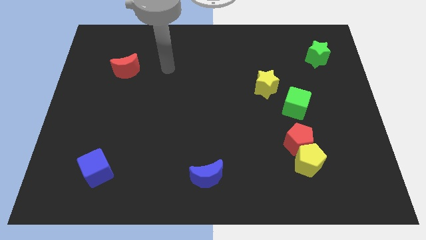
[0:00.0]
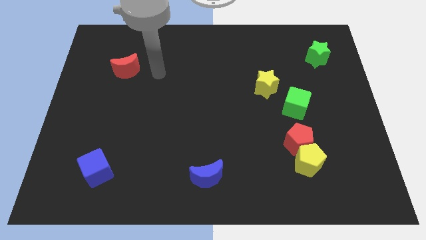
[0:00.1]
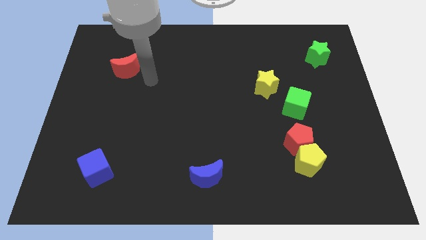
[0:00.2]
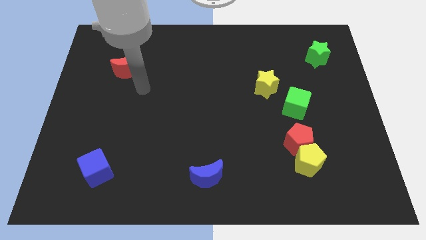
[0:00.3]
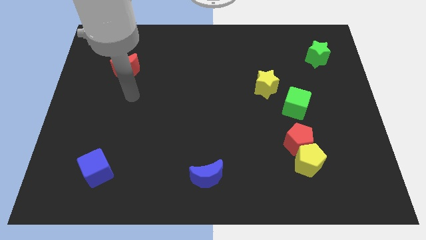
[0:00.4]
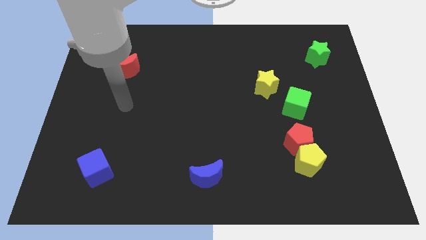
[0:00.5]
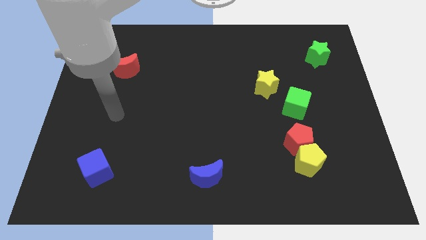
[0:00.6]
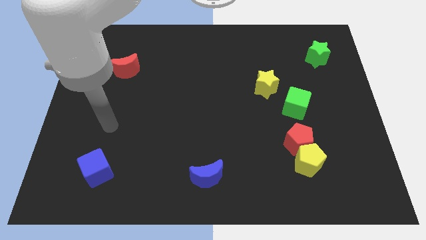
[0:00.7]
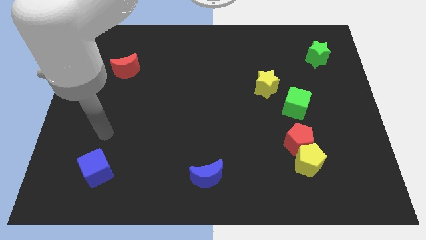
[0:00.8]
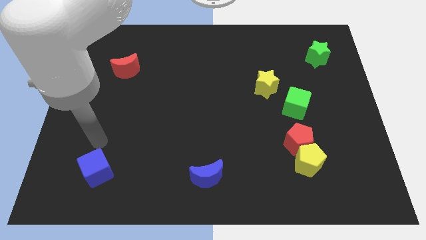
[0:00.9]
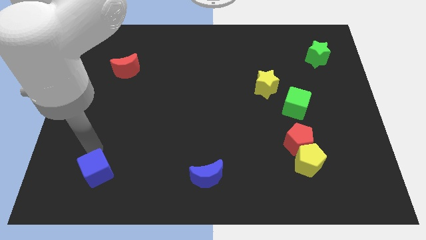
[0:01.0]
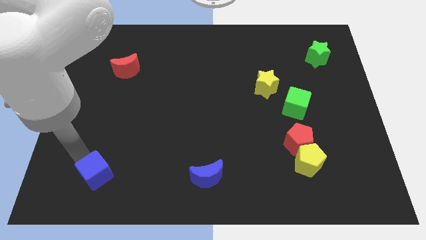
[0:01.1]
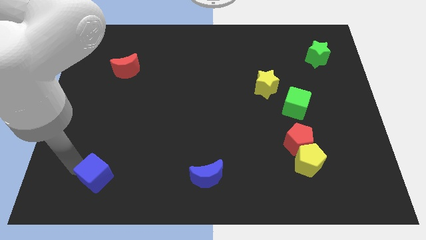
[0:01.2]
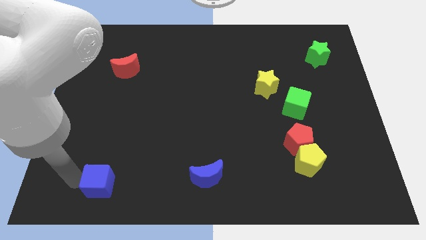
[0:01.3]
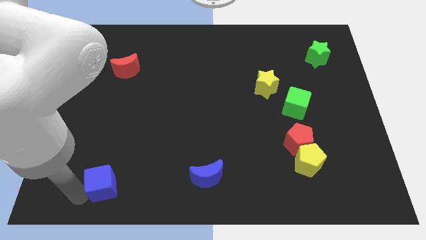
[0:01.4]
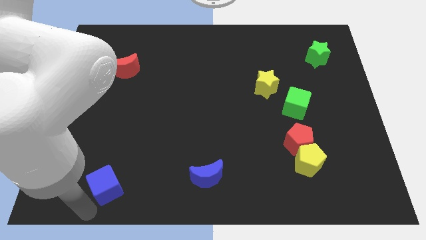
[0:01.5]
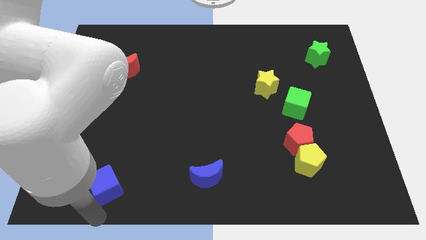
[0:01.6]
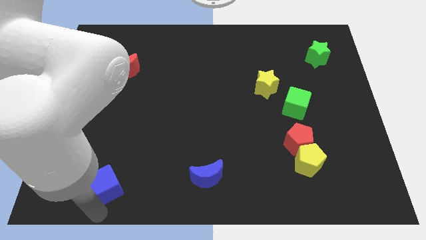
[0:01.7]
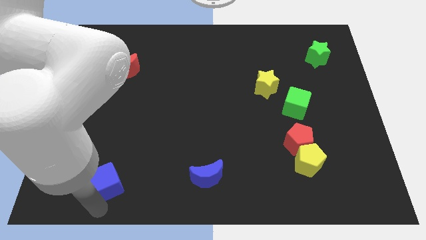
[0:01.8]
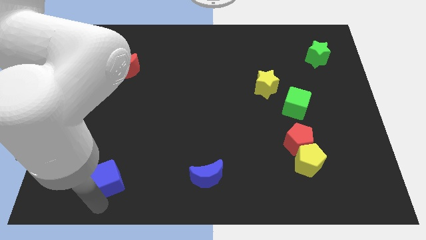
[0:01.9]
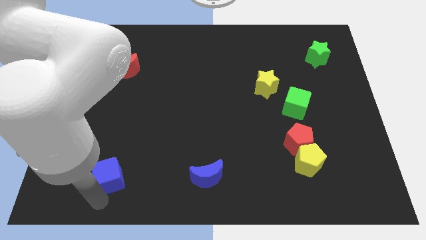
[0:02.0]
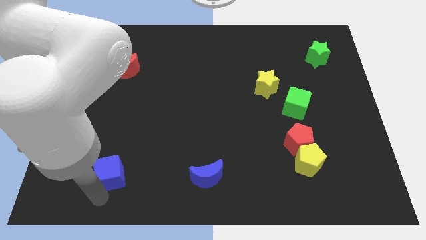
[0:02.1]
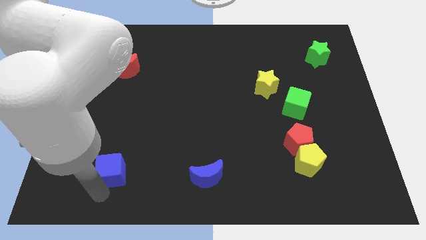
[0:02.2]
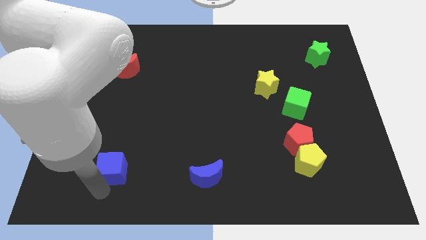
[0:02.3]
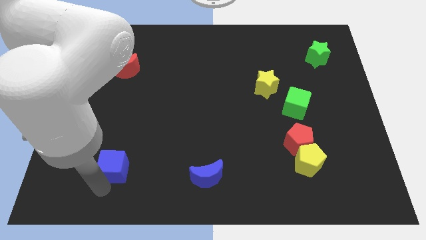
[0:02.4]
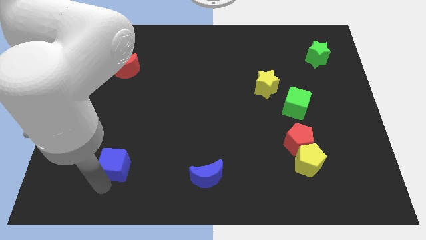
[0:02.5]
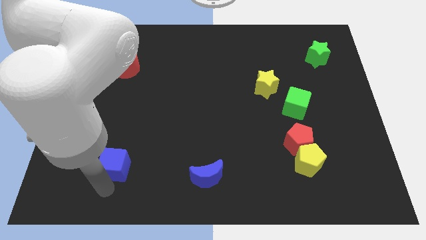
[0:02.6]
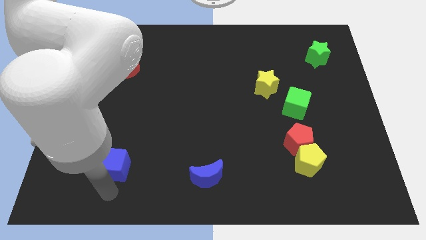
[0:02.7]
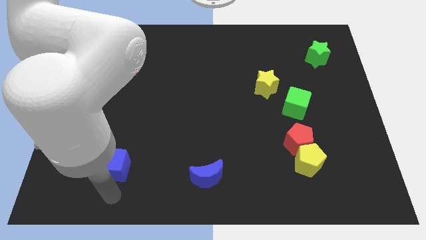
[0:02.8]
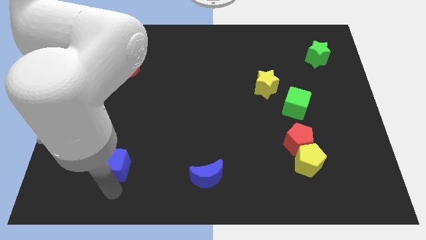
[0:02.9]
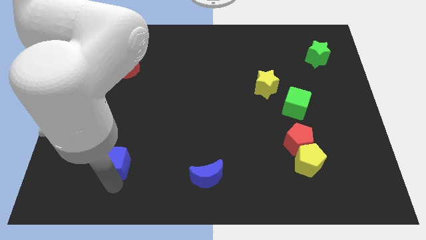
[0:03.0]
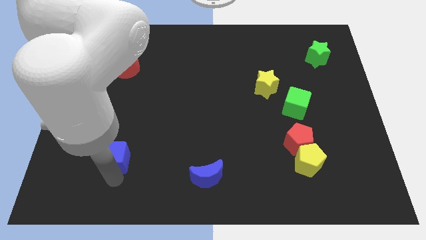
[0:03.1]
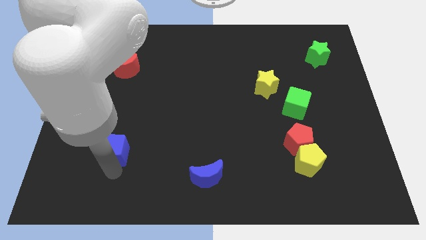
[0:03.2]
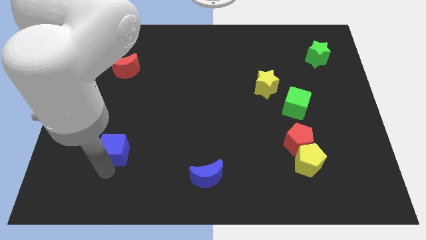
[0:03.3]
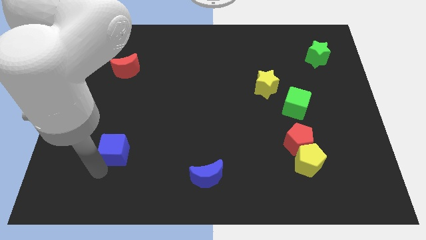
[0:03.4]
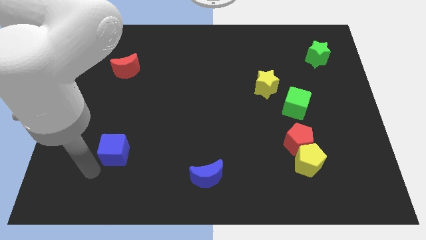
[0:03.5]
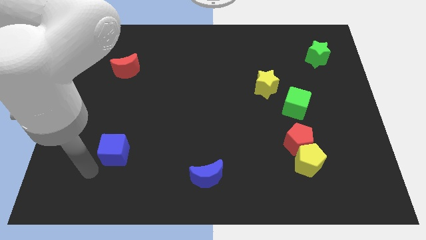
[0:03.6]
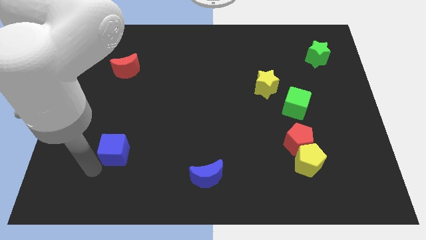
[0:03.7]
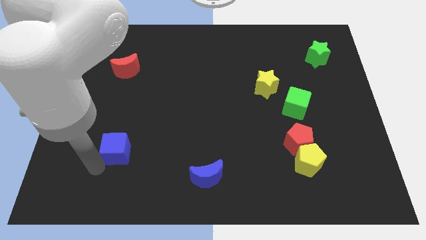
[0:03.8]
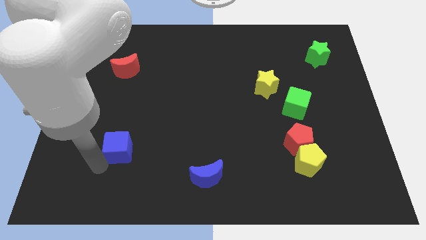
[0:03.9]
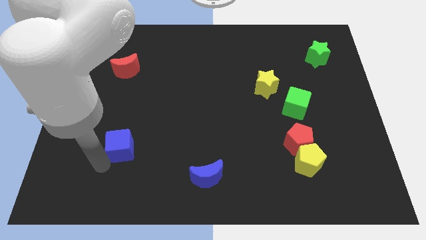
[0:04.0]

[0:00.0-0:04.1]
slide the blue cube upwards and then right a little bit

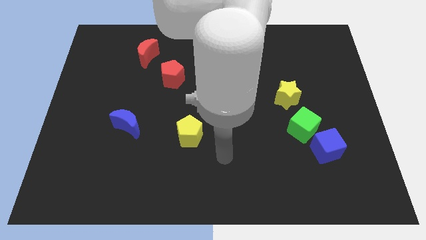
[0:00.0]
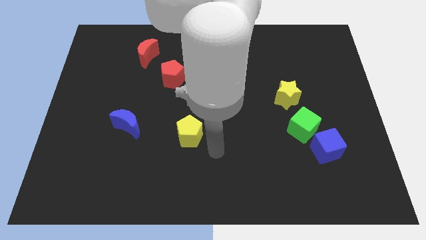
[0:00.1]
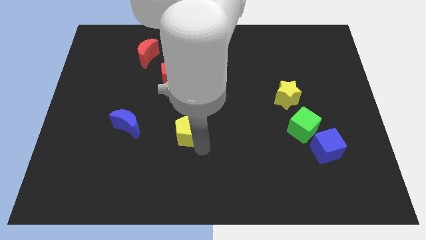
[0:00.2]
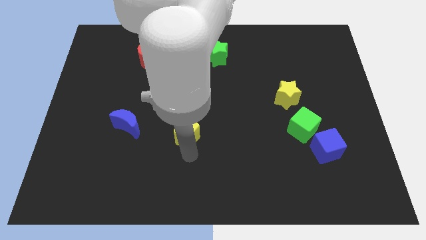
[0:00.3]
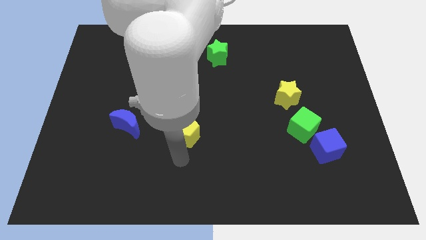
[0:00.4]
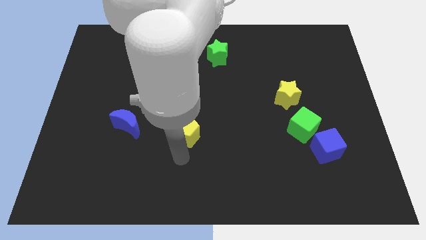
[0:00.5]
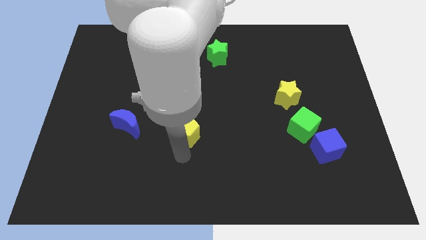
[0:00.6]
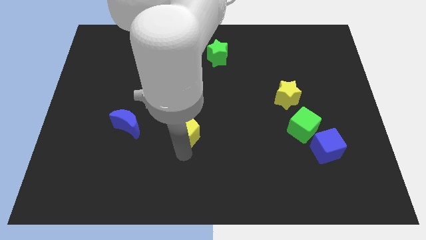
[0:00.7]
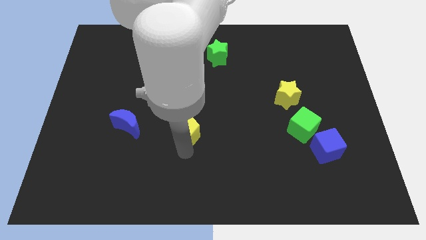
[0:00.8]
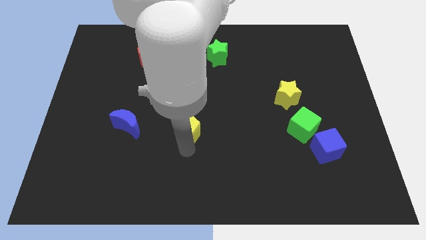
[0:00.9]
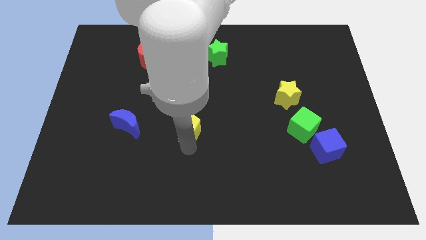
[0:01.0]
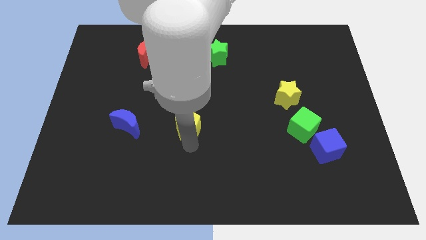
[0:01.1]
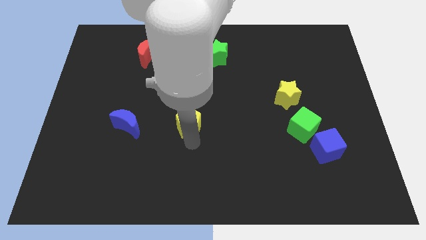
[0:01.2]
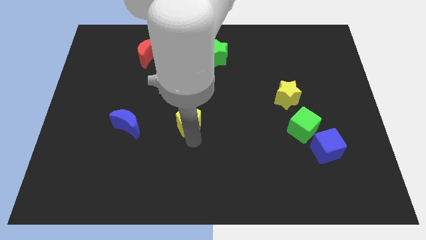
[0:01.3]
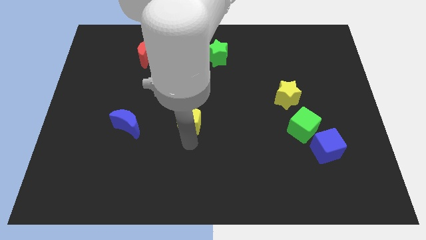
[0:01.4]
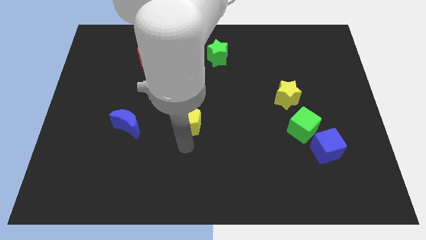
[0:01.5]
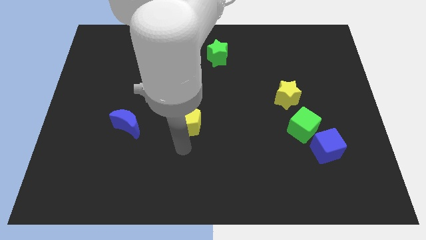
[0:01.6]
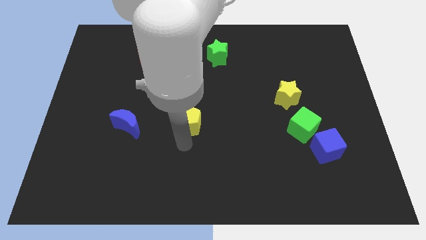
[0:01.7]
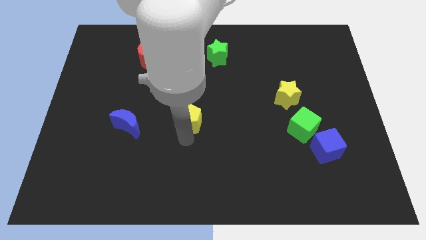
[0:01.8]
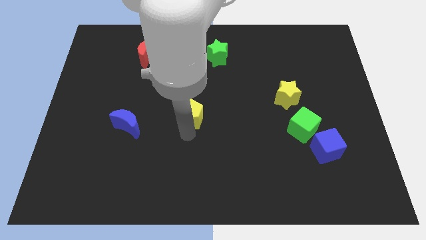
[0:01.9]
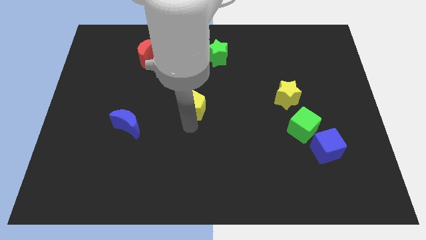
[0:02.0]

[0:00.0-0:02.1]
slightly slide the yellow pentagon up

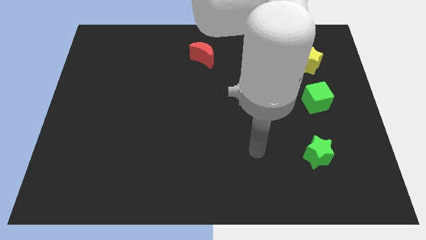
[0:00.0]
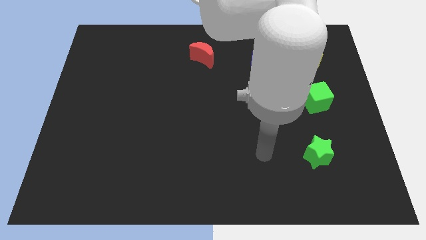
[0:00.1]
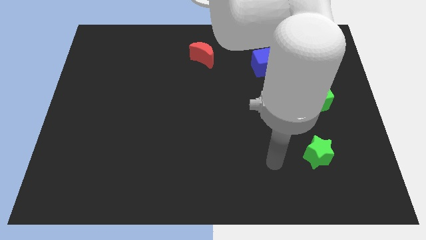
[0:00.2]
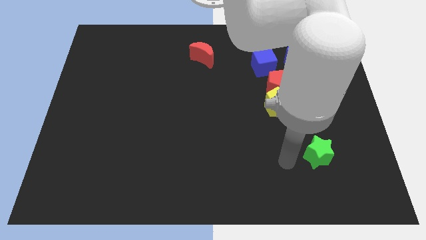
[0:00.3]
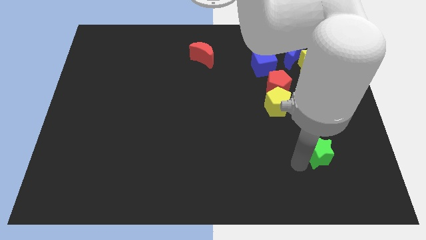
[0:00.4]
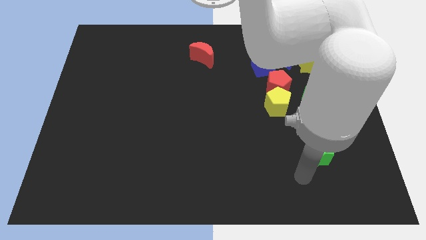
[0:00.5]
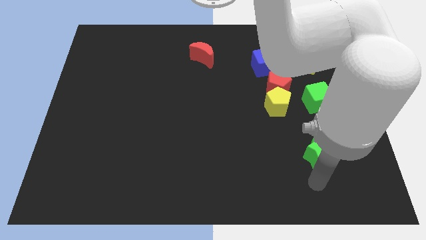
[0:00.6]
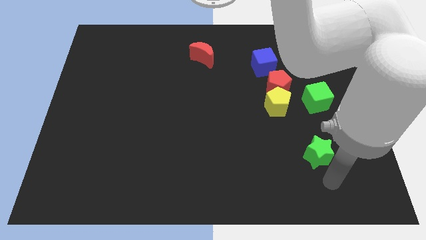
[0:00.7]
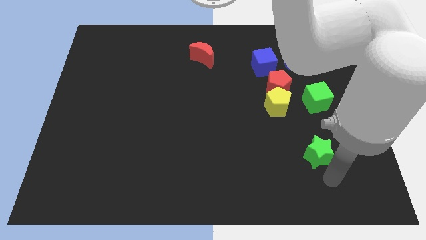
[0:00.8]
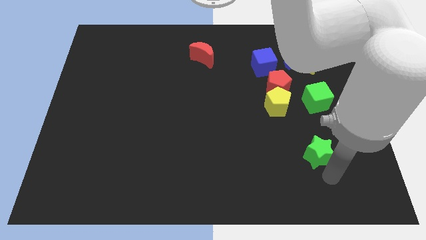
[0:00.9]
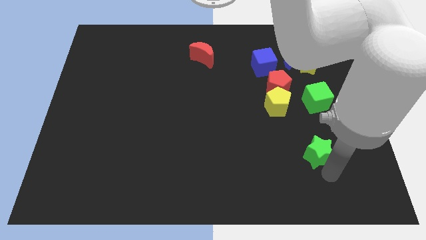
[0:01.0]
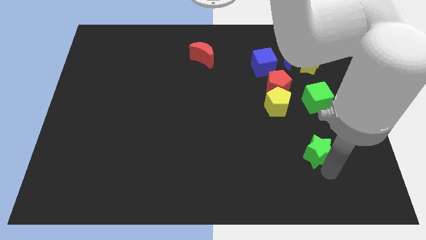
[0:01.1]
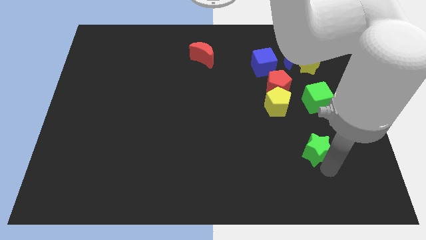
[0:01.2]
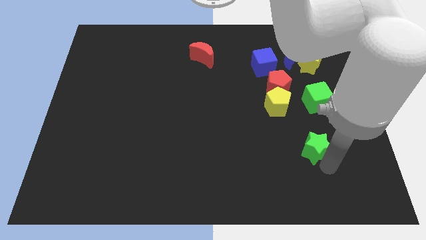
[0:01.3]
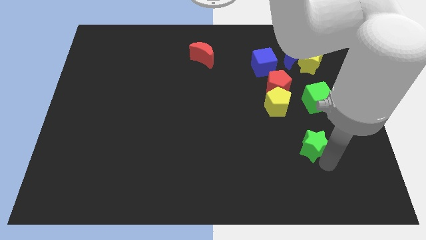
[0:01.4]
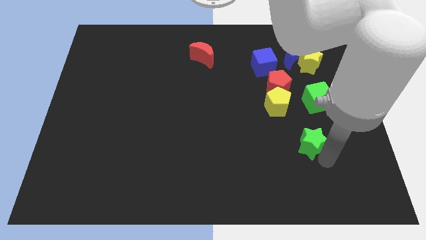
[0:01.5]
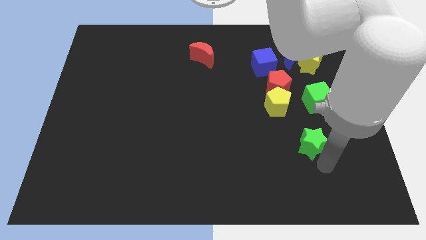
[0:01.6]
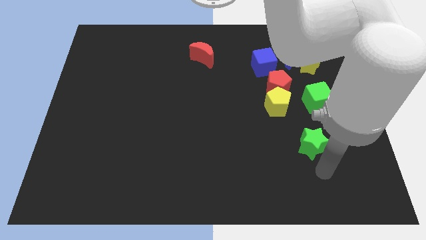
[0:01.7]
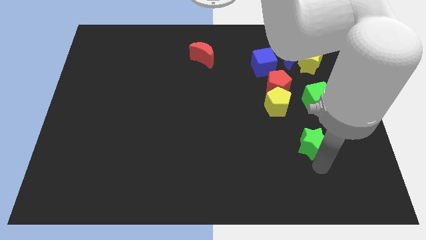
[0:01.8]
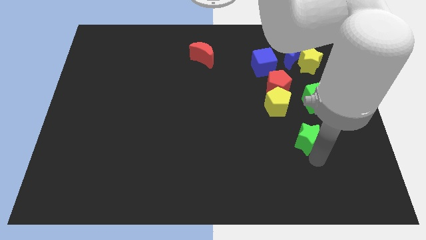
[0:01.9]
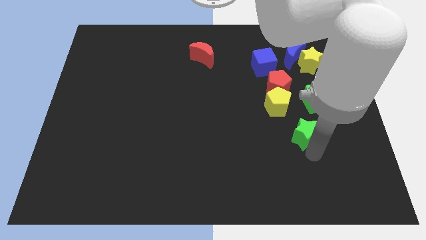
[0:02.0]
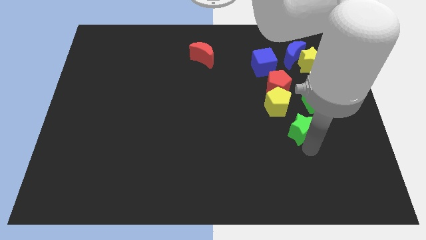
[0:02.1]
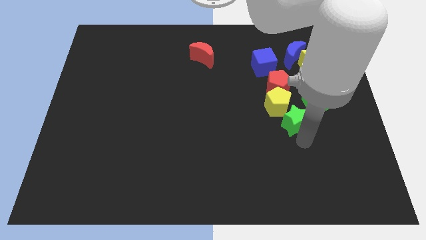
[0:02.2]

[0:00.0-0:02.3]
slightly slide the green star up

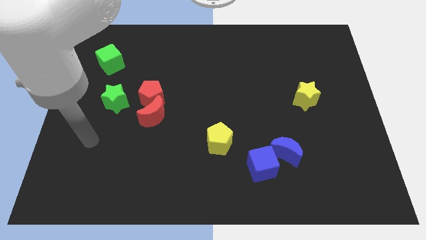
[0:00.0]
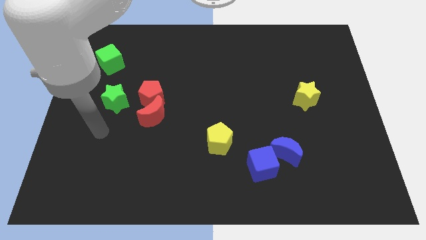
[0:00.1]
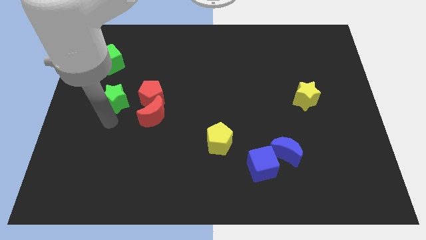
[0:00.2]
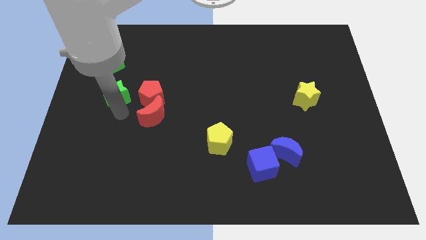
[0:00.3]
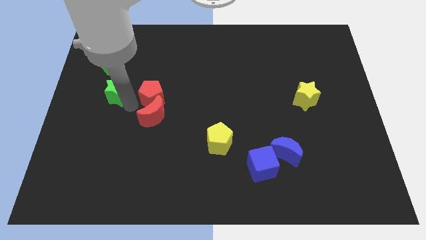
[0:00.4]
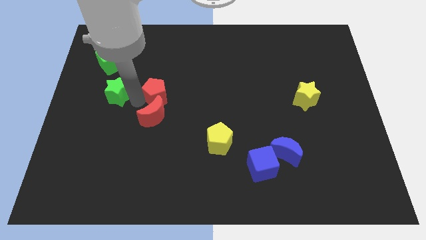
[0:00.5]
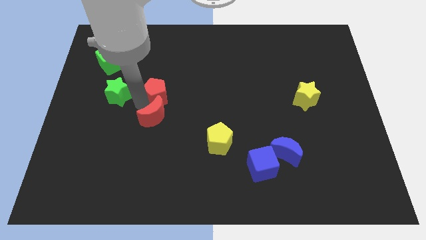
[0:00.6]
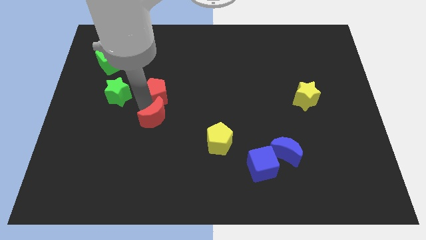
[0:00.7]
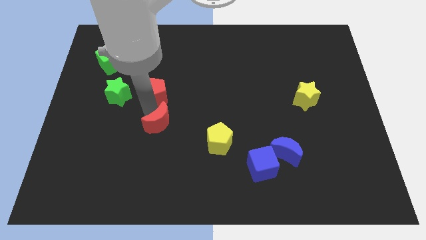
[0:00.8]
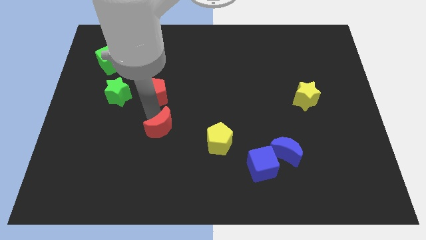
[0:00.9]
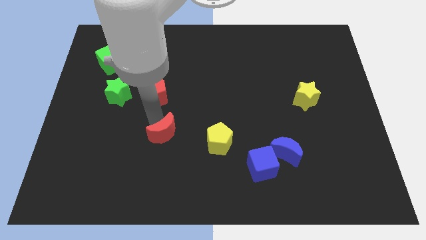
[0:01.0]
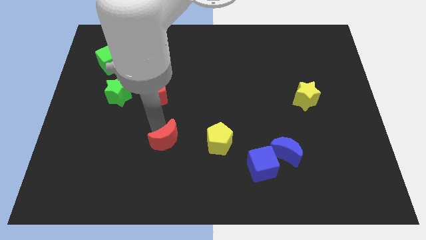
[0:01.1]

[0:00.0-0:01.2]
slightly move the red moon downwards and then to the right
